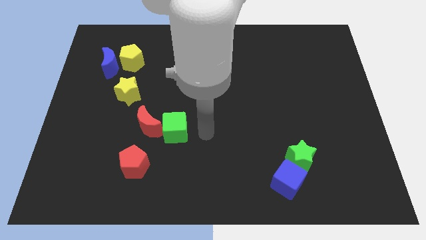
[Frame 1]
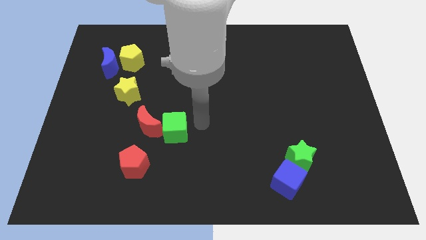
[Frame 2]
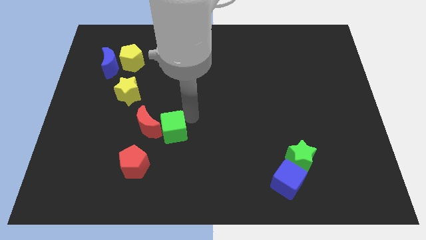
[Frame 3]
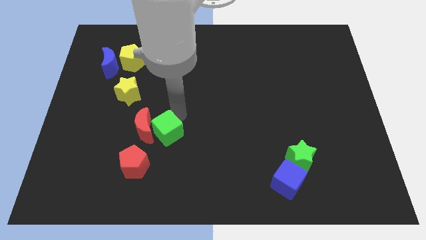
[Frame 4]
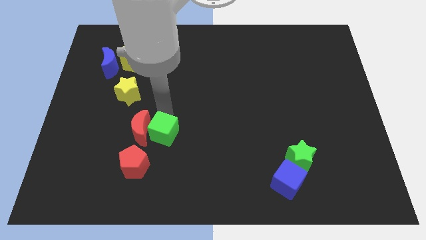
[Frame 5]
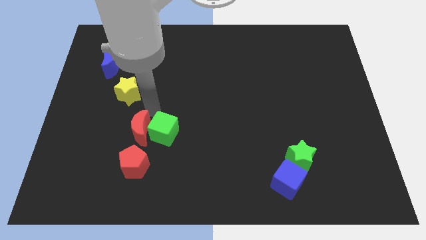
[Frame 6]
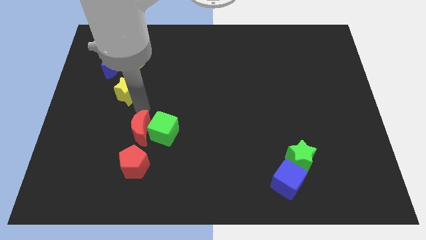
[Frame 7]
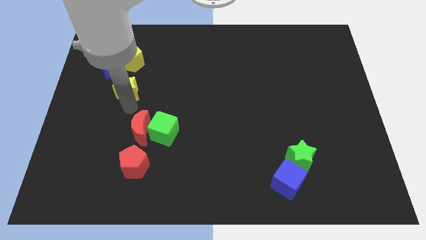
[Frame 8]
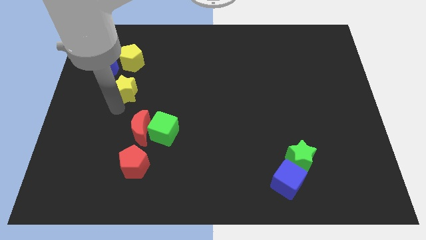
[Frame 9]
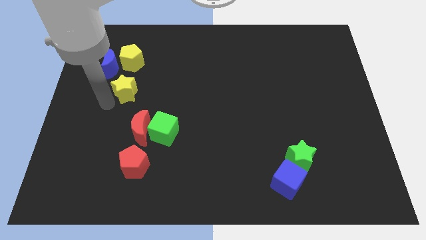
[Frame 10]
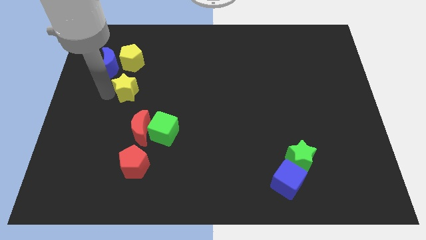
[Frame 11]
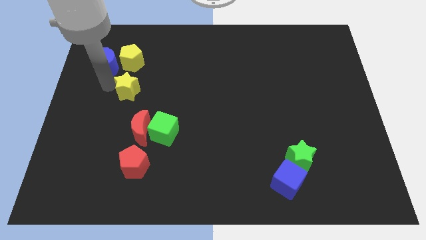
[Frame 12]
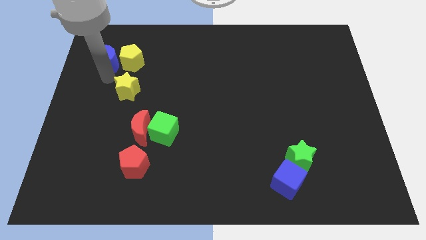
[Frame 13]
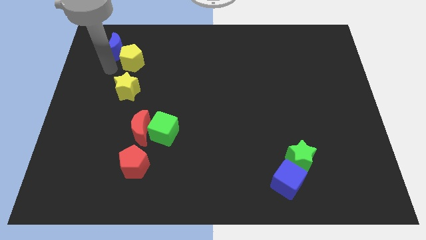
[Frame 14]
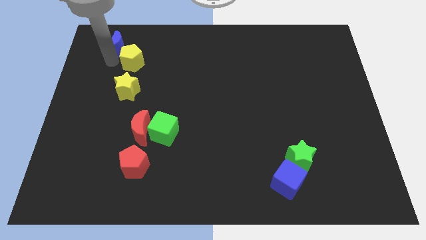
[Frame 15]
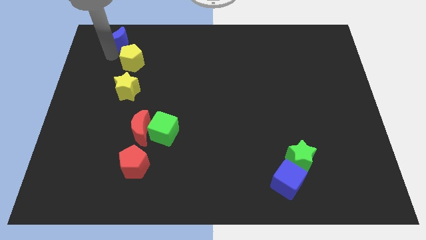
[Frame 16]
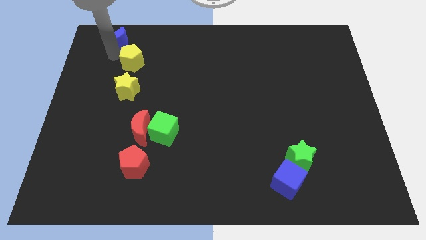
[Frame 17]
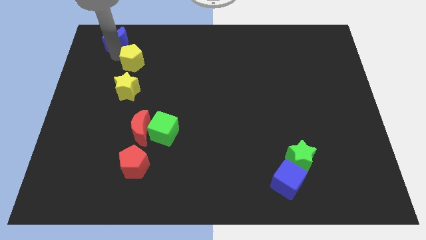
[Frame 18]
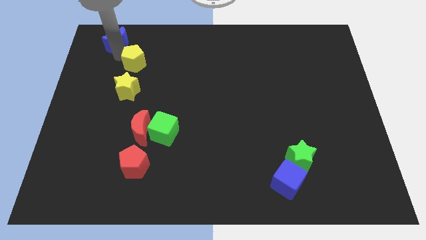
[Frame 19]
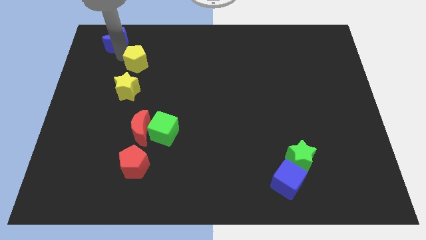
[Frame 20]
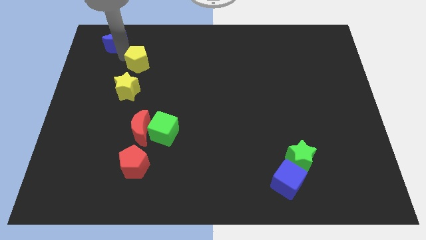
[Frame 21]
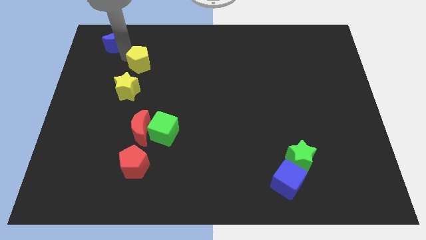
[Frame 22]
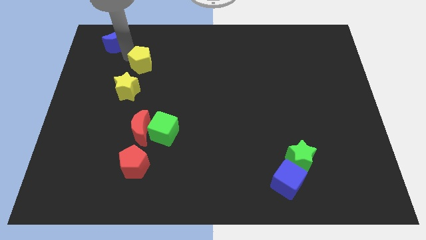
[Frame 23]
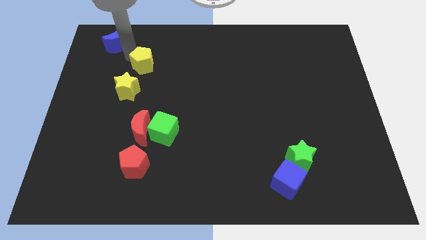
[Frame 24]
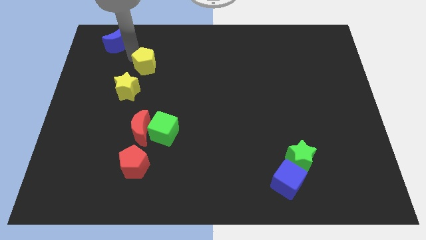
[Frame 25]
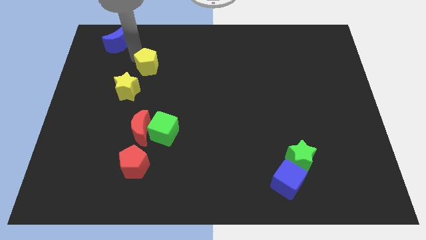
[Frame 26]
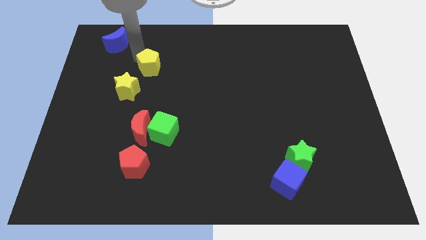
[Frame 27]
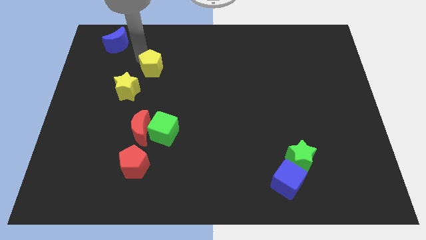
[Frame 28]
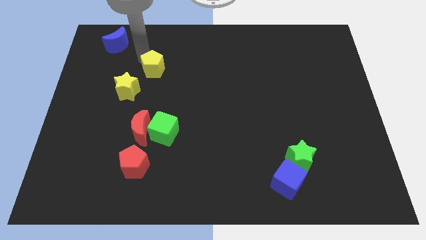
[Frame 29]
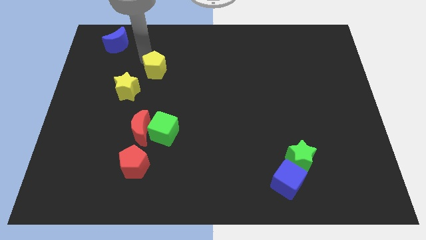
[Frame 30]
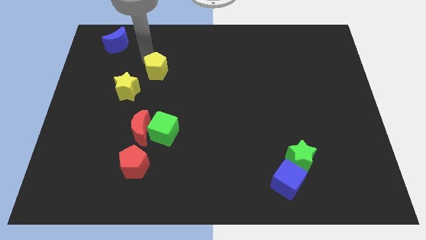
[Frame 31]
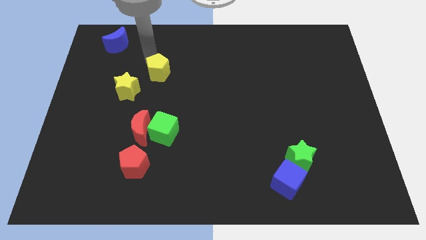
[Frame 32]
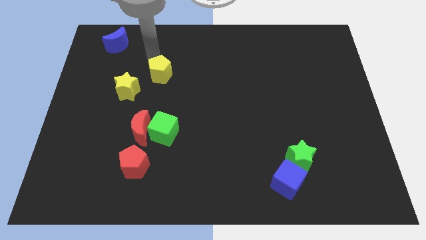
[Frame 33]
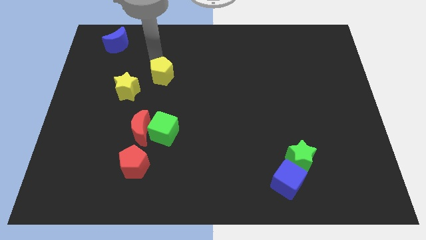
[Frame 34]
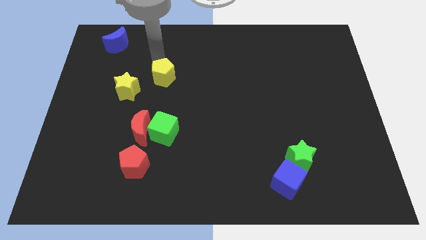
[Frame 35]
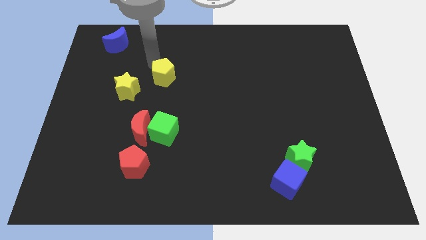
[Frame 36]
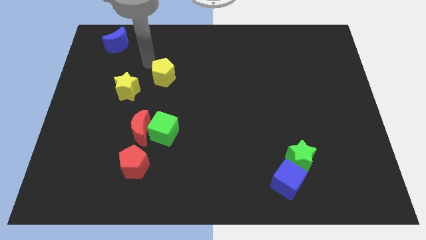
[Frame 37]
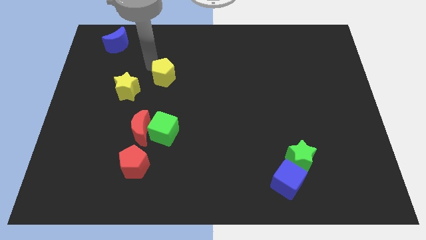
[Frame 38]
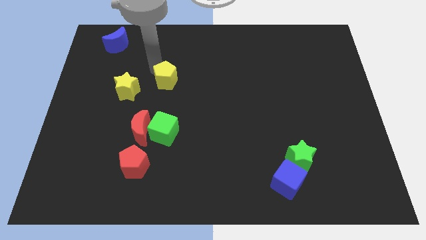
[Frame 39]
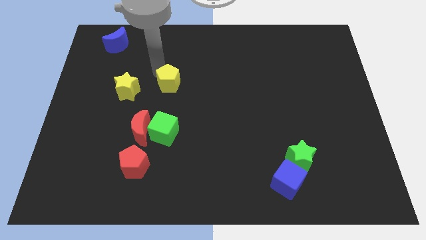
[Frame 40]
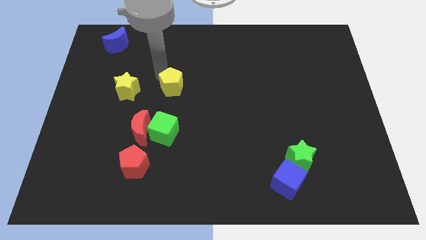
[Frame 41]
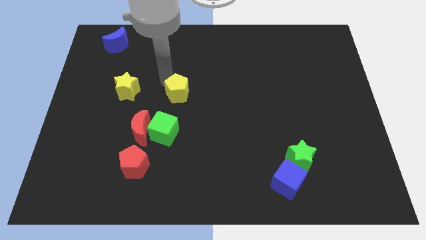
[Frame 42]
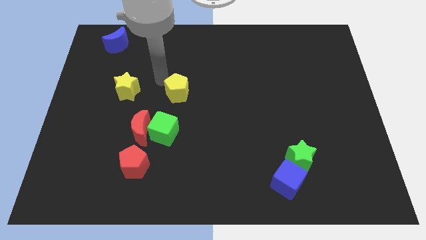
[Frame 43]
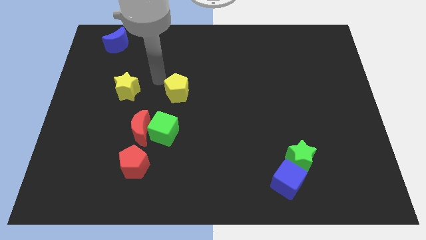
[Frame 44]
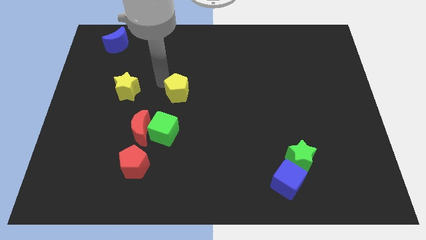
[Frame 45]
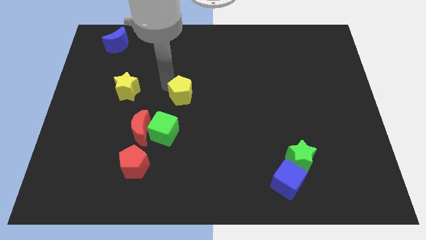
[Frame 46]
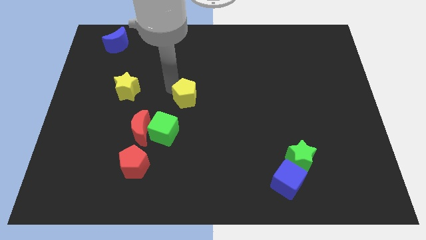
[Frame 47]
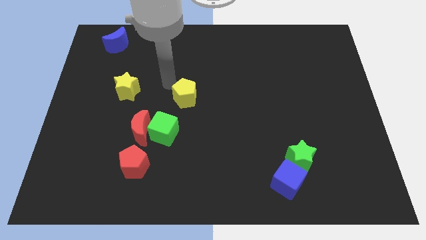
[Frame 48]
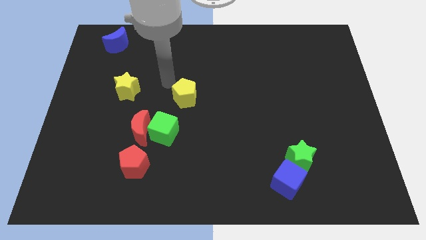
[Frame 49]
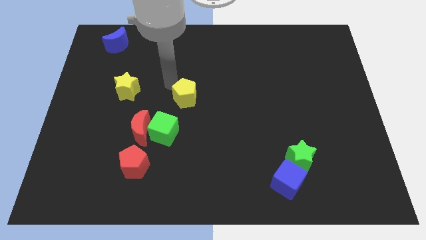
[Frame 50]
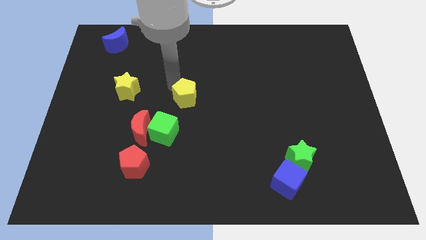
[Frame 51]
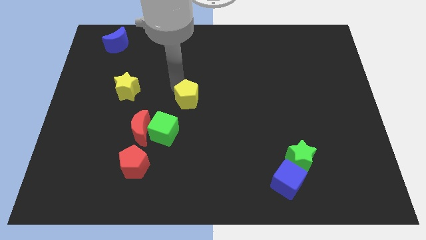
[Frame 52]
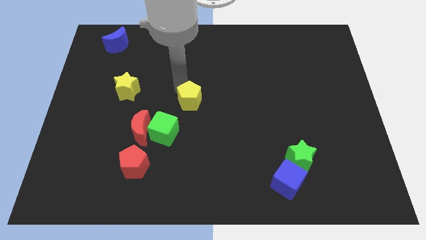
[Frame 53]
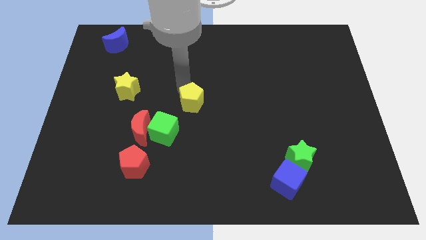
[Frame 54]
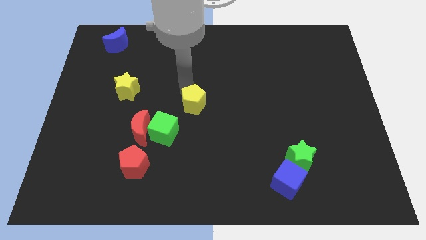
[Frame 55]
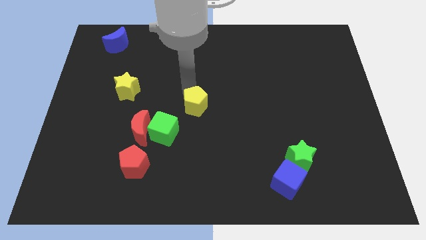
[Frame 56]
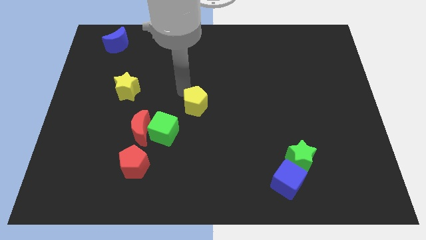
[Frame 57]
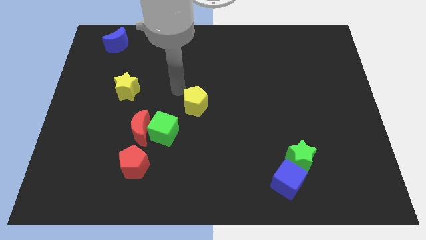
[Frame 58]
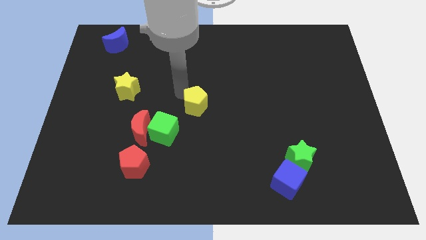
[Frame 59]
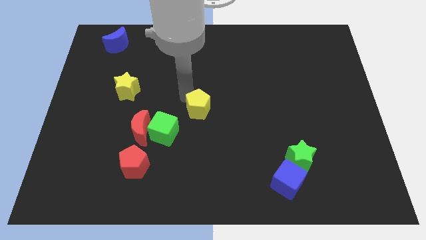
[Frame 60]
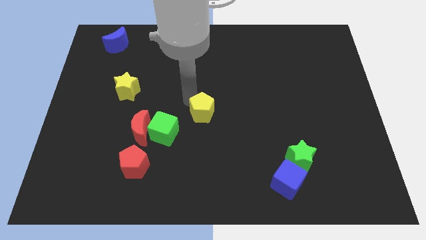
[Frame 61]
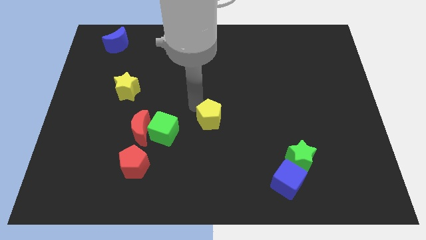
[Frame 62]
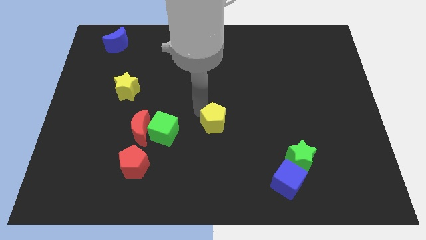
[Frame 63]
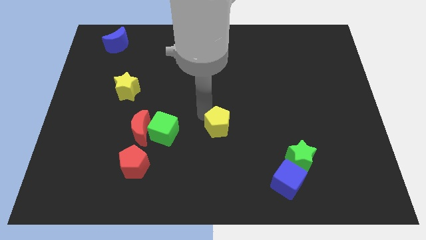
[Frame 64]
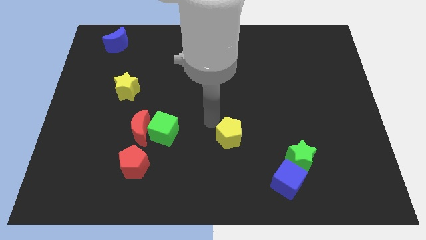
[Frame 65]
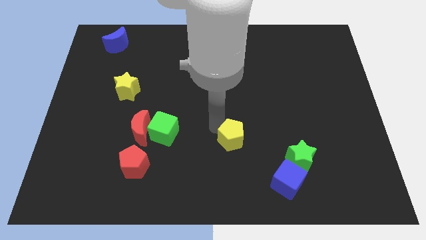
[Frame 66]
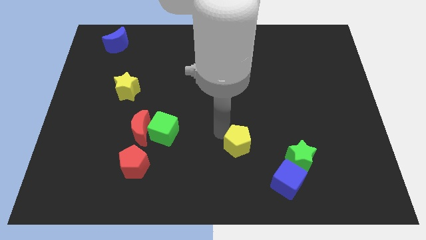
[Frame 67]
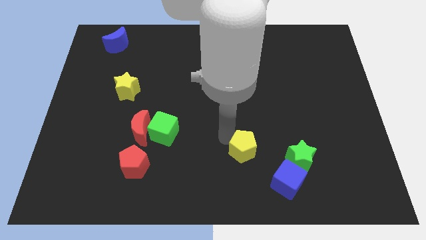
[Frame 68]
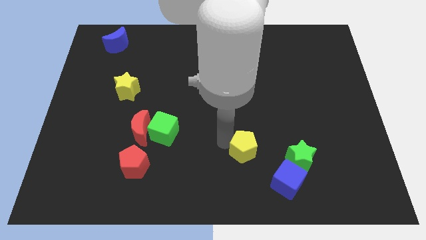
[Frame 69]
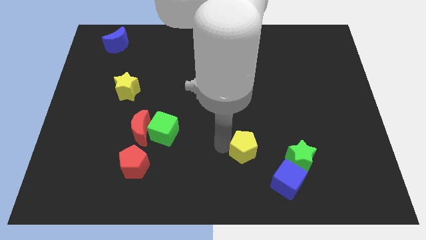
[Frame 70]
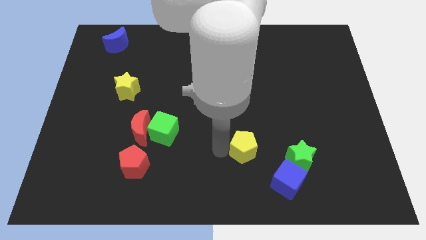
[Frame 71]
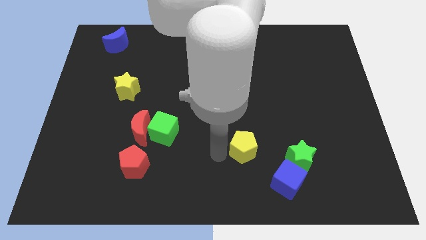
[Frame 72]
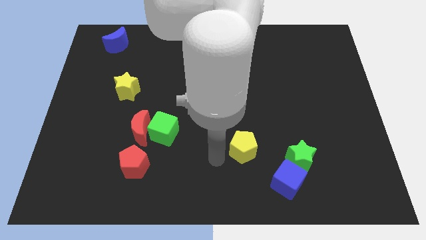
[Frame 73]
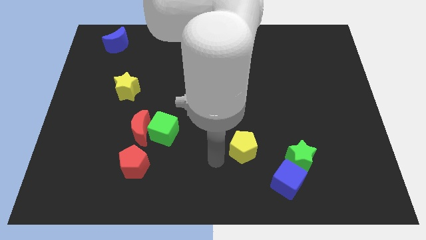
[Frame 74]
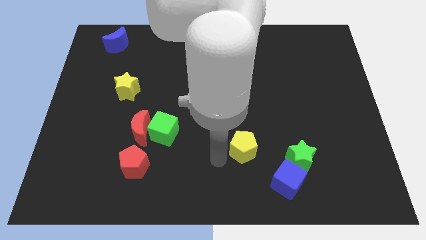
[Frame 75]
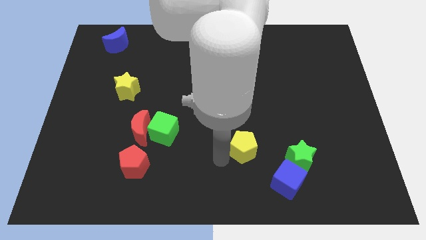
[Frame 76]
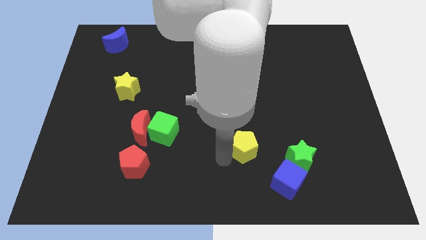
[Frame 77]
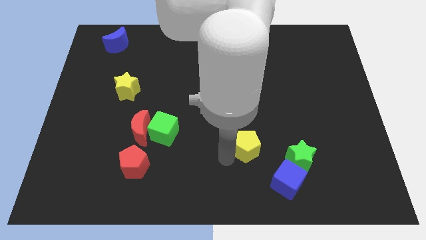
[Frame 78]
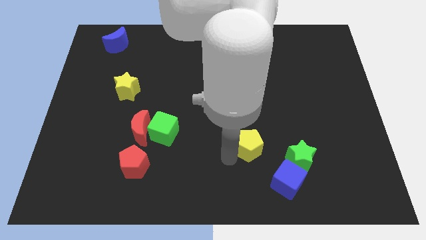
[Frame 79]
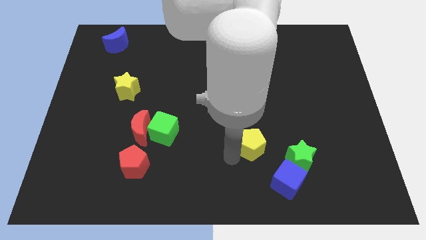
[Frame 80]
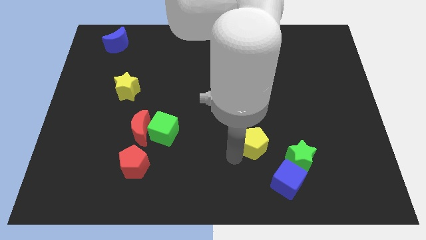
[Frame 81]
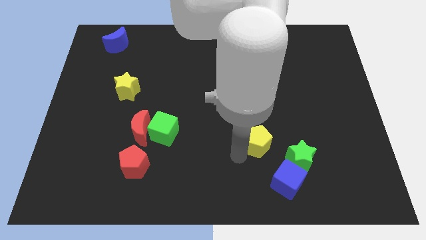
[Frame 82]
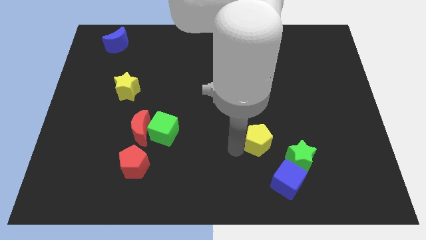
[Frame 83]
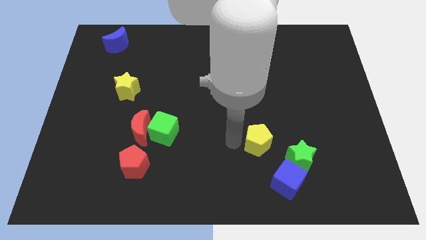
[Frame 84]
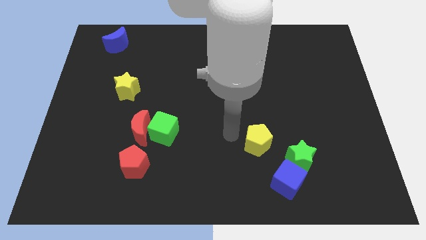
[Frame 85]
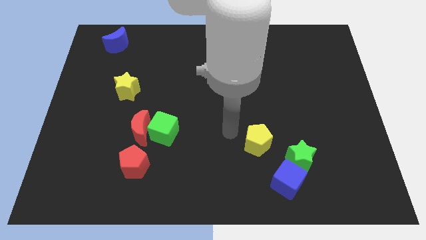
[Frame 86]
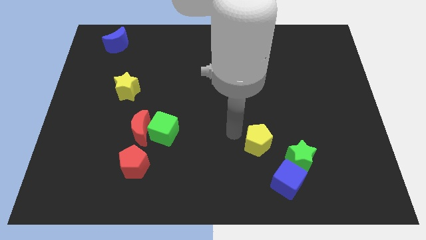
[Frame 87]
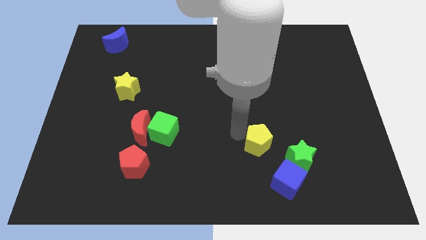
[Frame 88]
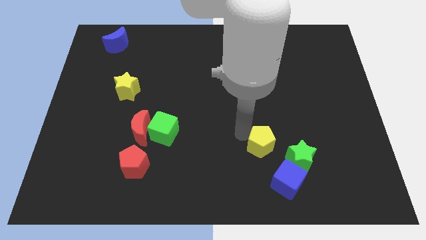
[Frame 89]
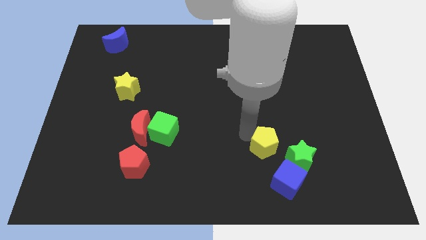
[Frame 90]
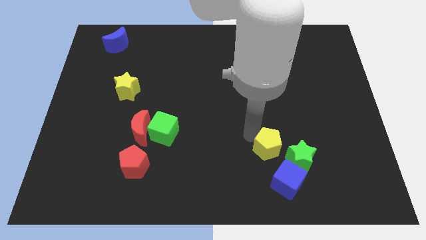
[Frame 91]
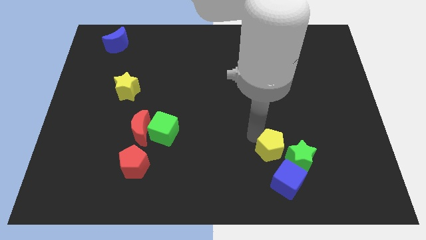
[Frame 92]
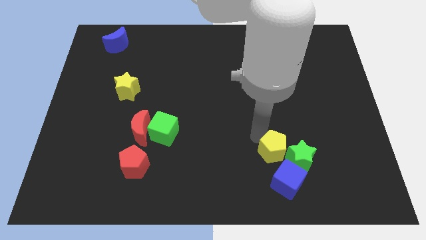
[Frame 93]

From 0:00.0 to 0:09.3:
put the yellow pentagon towards the green star
